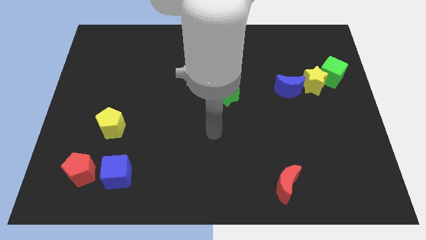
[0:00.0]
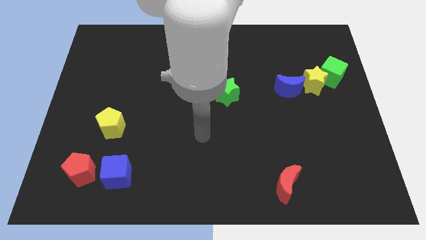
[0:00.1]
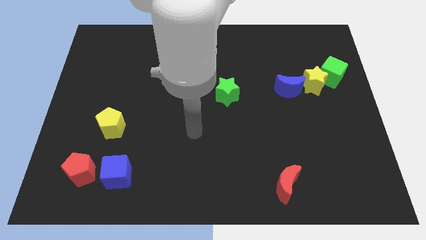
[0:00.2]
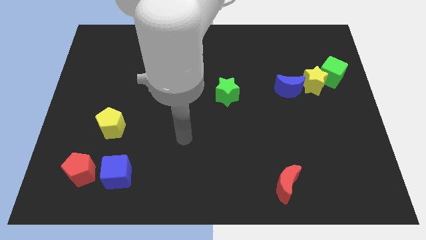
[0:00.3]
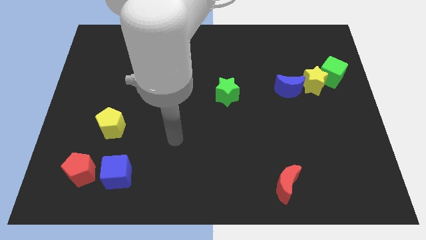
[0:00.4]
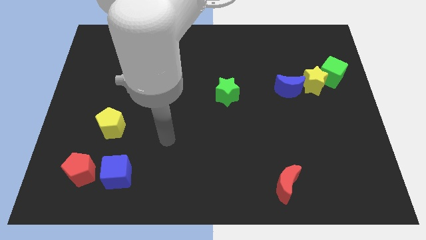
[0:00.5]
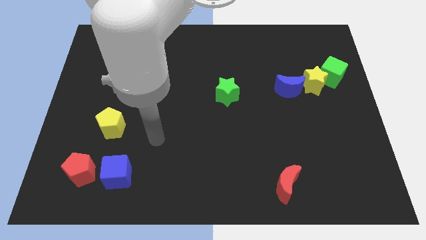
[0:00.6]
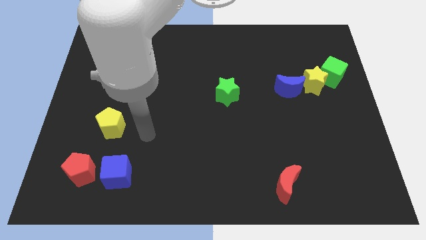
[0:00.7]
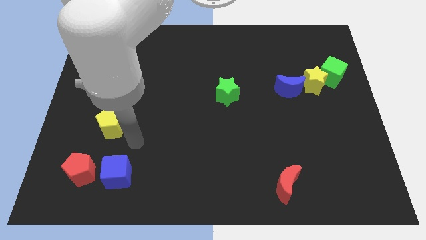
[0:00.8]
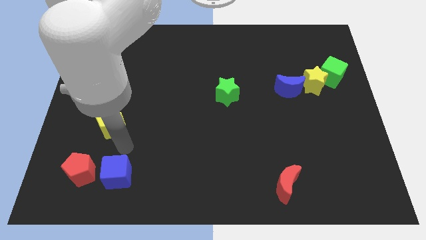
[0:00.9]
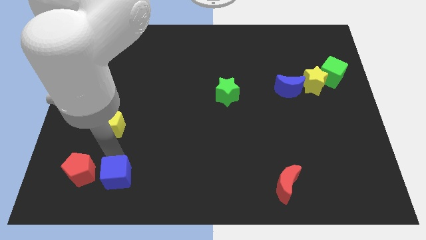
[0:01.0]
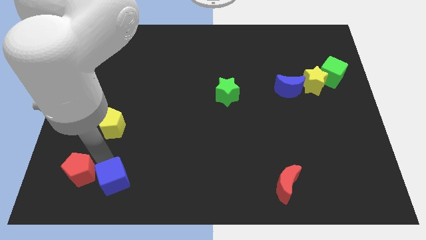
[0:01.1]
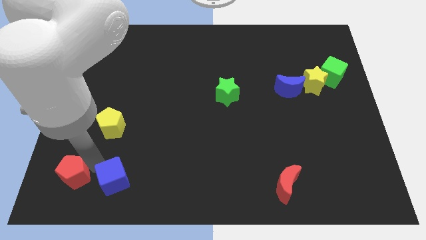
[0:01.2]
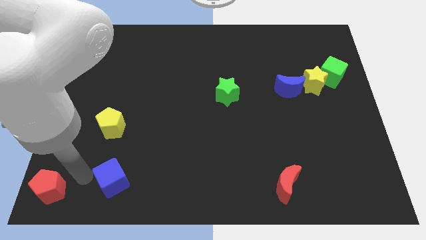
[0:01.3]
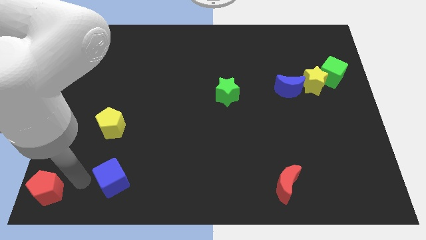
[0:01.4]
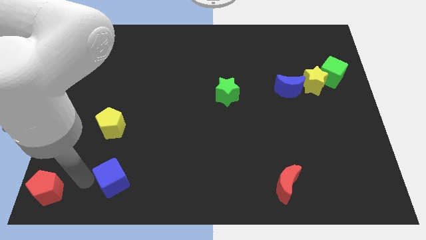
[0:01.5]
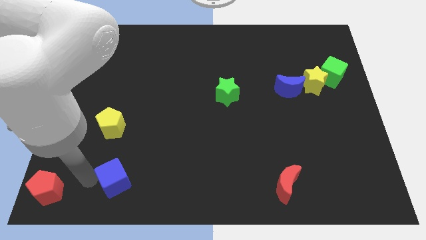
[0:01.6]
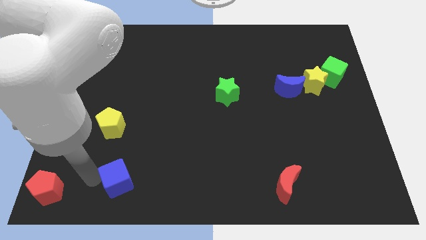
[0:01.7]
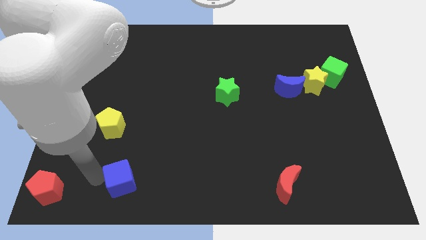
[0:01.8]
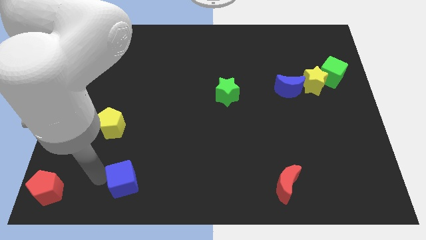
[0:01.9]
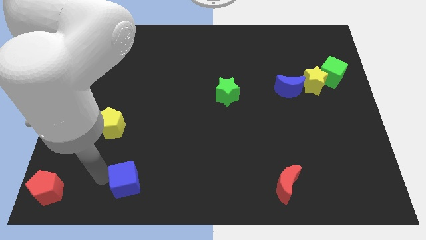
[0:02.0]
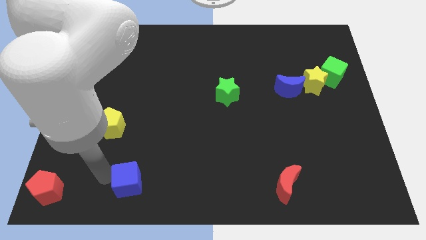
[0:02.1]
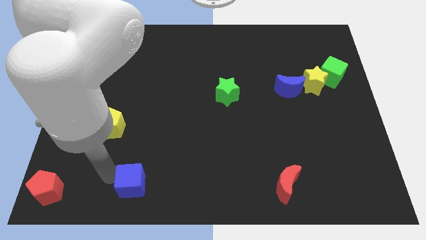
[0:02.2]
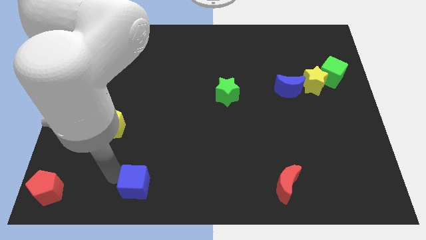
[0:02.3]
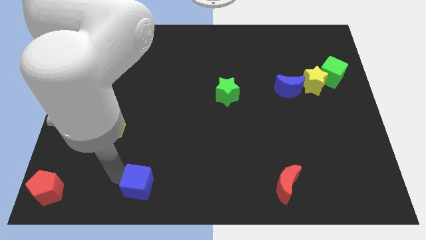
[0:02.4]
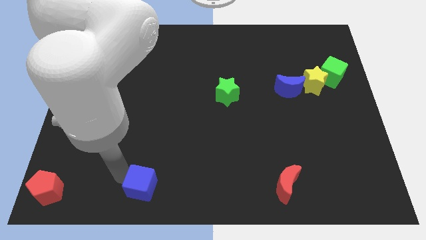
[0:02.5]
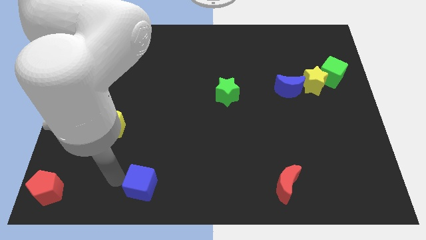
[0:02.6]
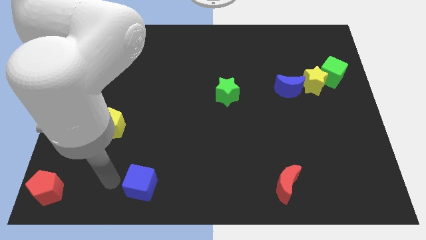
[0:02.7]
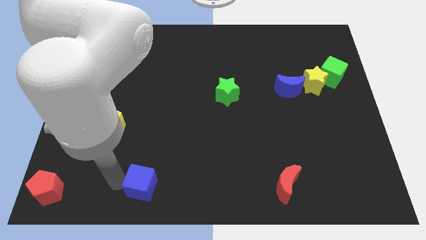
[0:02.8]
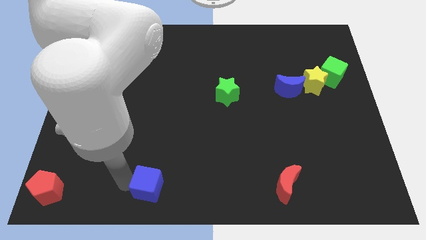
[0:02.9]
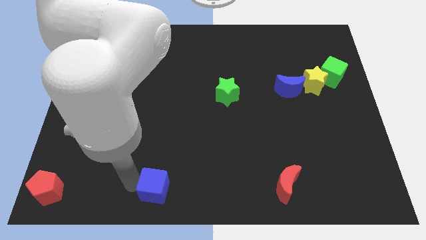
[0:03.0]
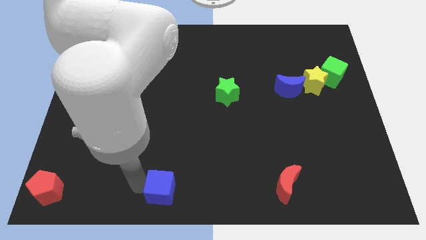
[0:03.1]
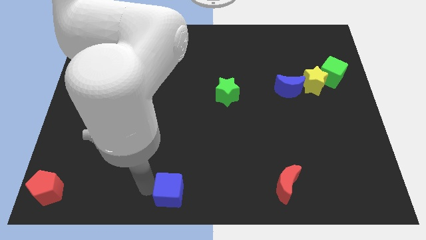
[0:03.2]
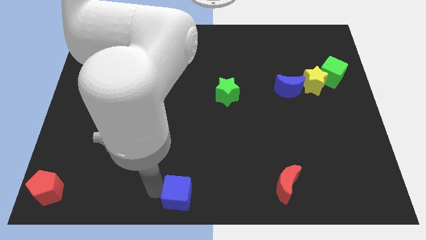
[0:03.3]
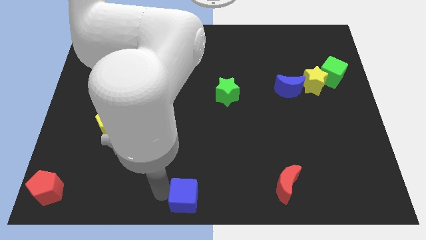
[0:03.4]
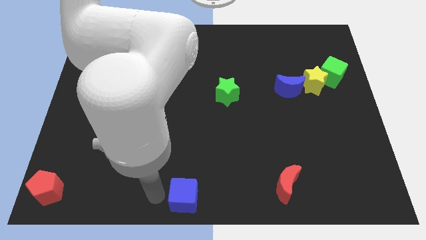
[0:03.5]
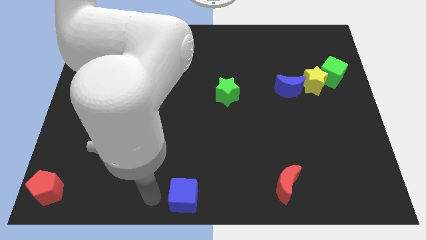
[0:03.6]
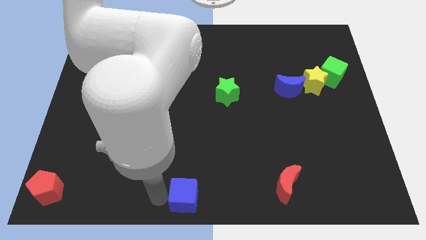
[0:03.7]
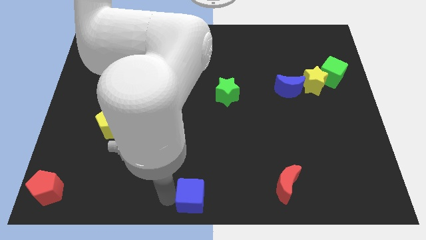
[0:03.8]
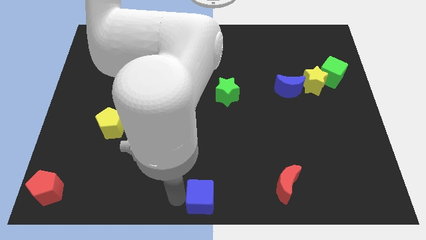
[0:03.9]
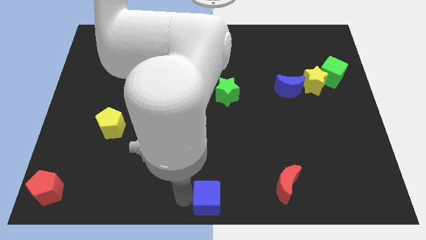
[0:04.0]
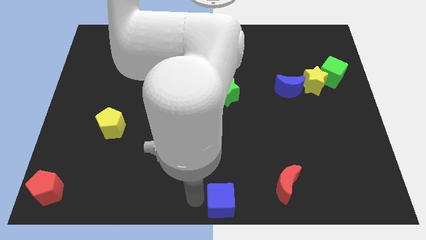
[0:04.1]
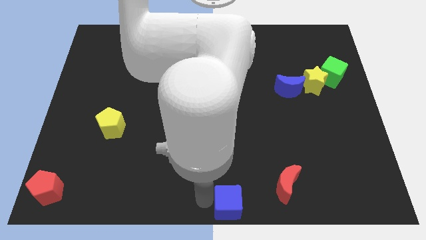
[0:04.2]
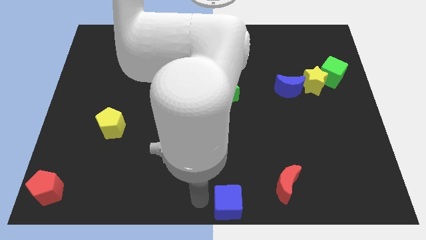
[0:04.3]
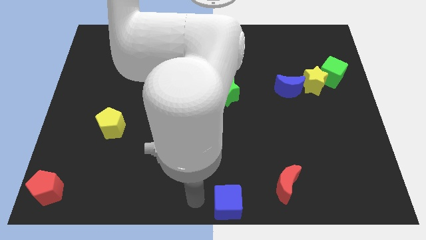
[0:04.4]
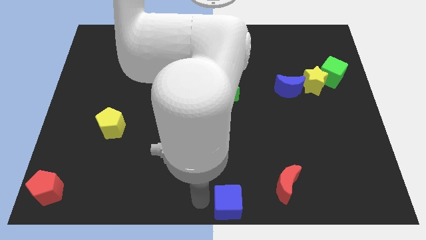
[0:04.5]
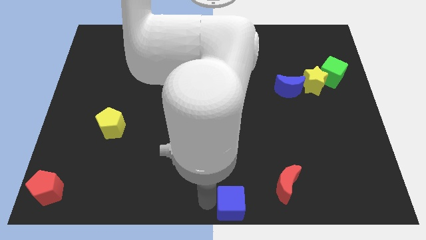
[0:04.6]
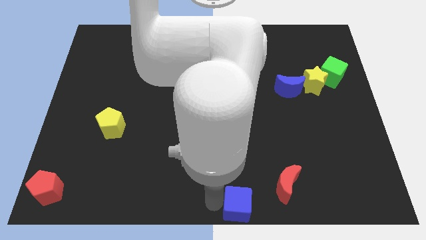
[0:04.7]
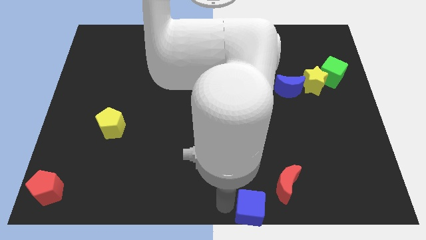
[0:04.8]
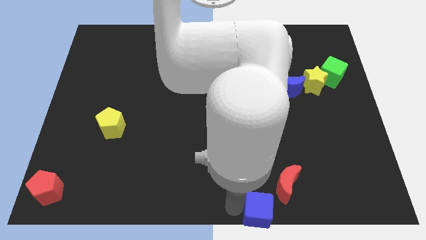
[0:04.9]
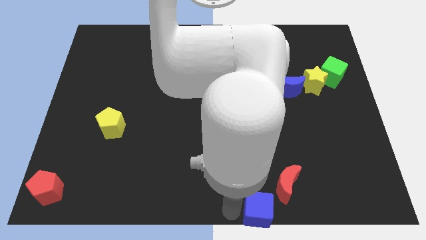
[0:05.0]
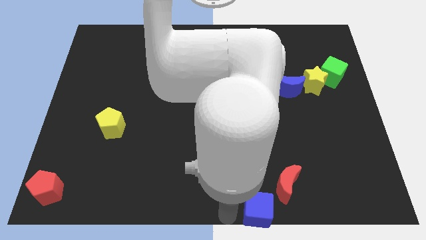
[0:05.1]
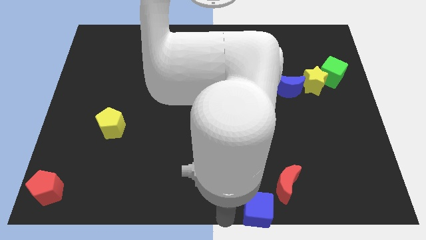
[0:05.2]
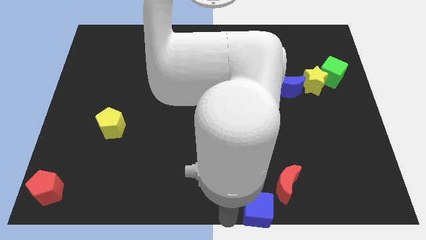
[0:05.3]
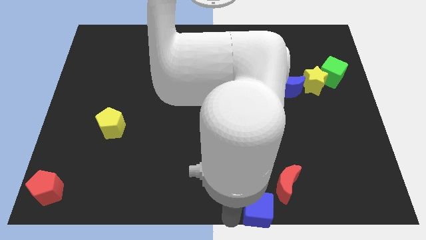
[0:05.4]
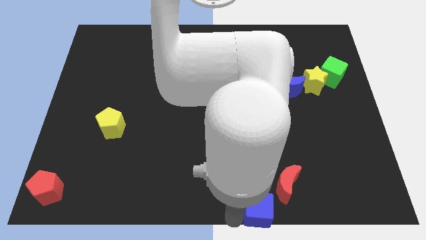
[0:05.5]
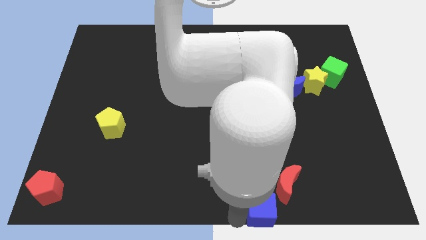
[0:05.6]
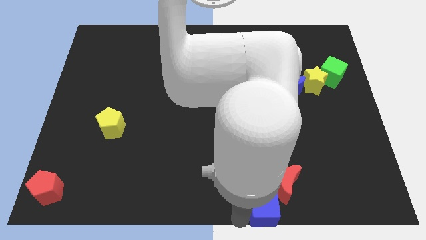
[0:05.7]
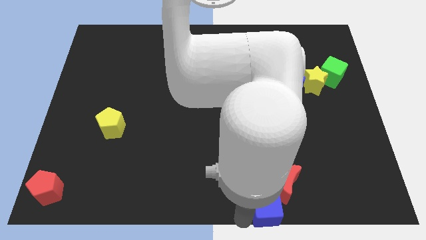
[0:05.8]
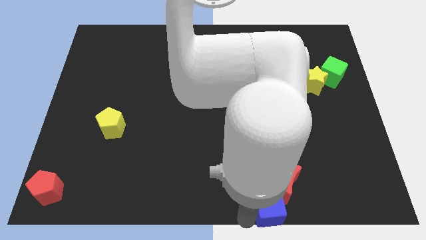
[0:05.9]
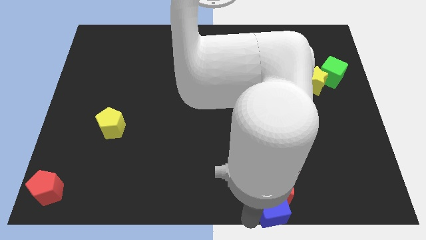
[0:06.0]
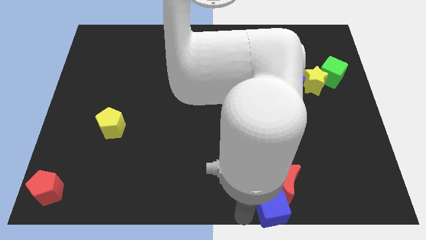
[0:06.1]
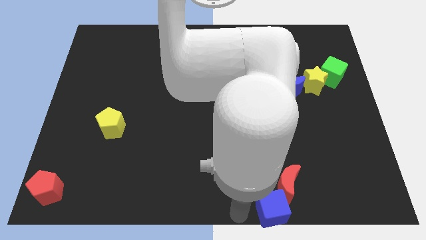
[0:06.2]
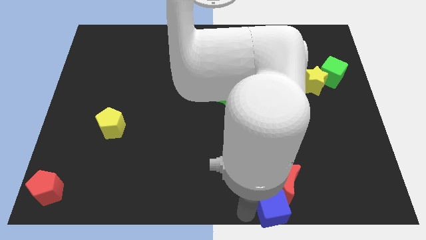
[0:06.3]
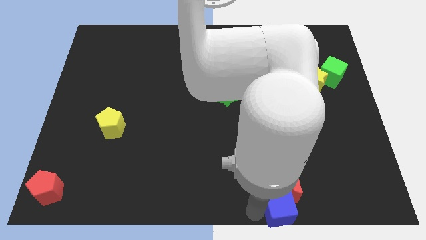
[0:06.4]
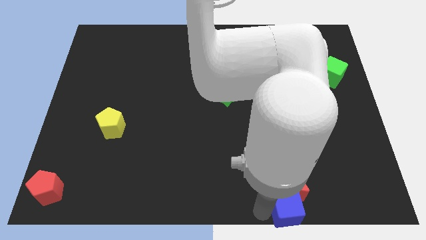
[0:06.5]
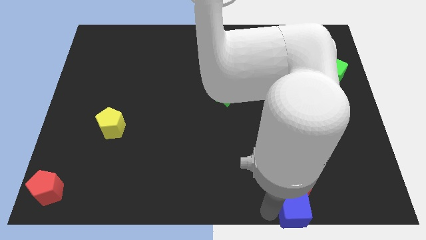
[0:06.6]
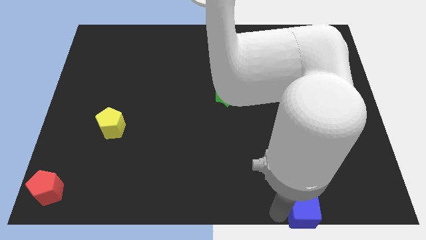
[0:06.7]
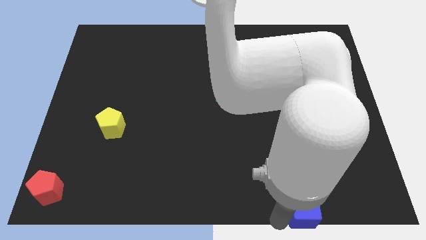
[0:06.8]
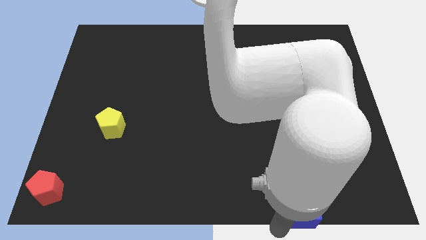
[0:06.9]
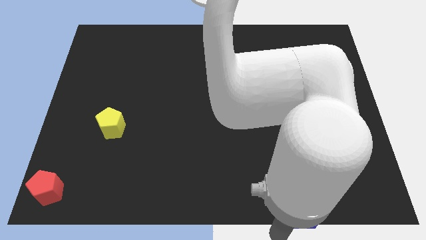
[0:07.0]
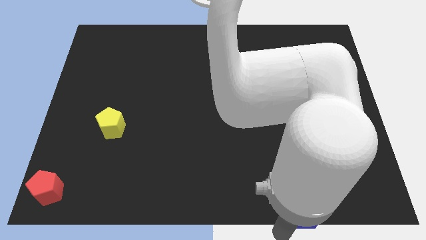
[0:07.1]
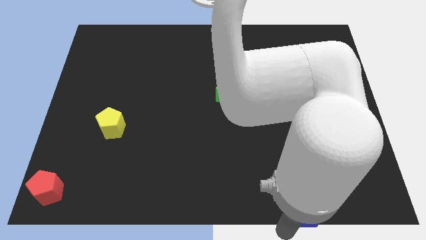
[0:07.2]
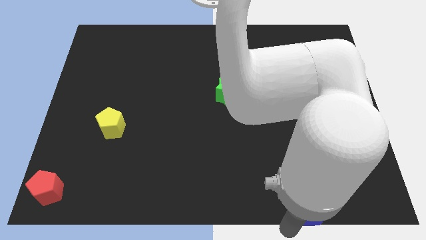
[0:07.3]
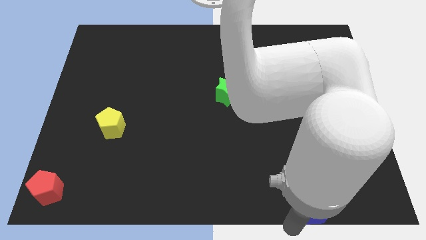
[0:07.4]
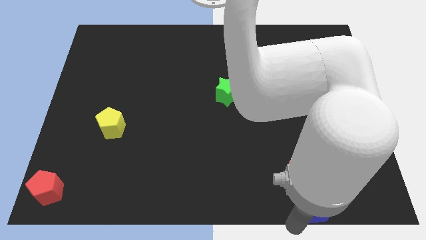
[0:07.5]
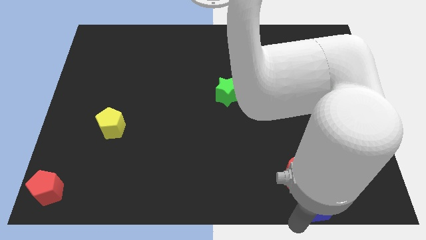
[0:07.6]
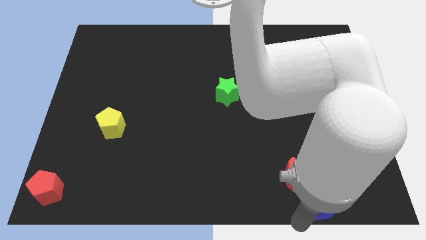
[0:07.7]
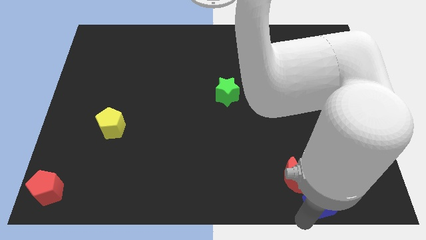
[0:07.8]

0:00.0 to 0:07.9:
slide the blue cube right of the red moon
